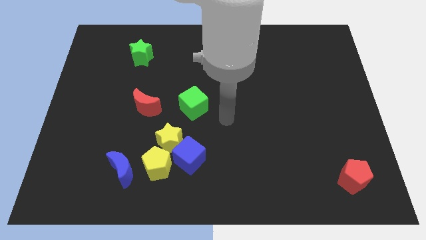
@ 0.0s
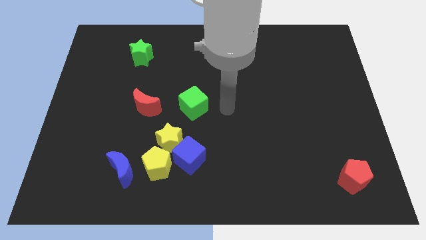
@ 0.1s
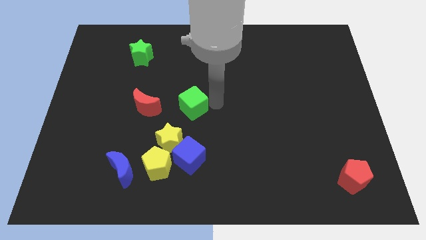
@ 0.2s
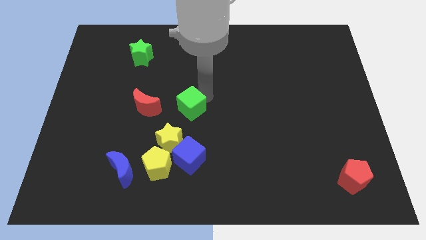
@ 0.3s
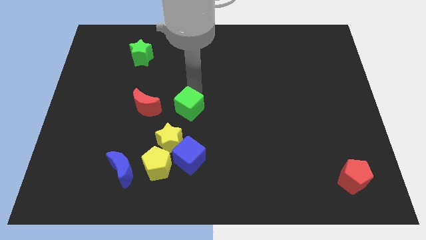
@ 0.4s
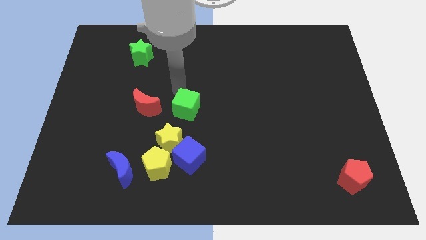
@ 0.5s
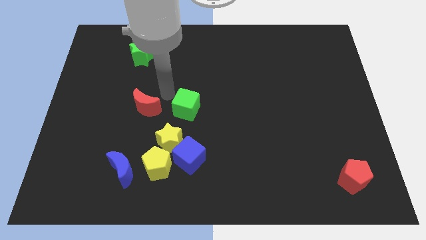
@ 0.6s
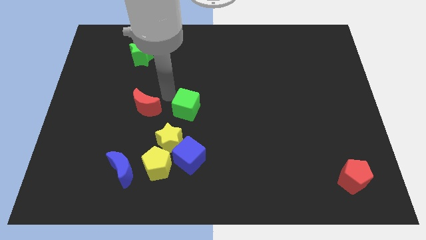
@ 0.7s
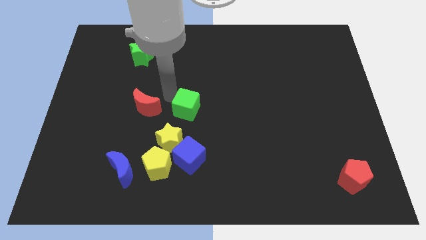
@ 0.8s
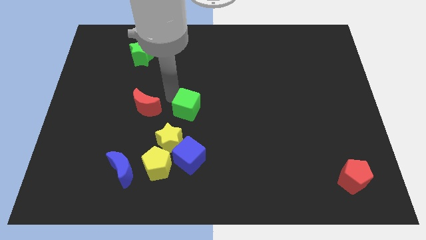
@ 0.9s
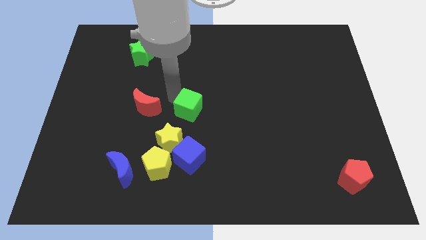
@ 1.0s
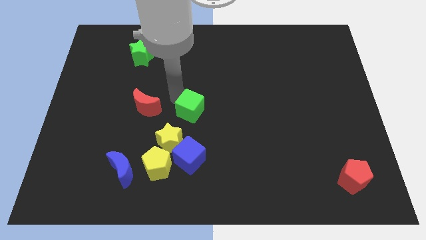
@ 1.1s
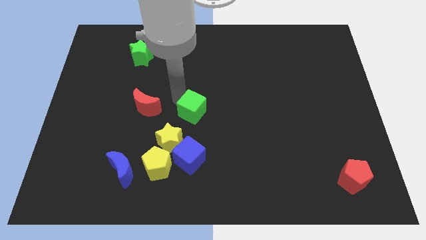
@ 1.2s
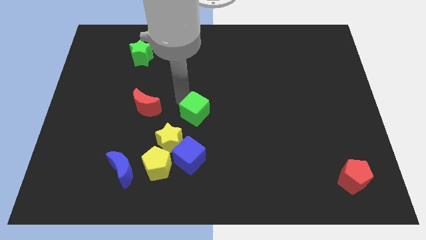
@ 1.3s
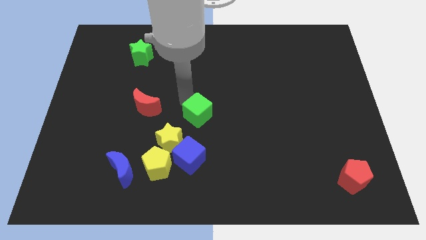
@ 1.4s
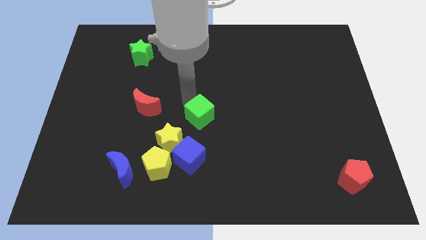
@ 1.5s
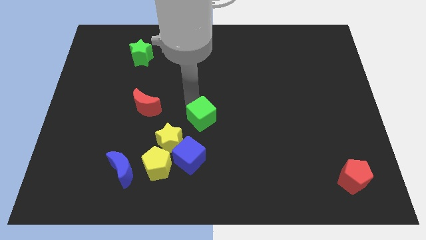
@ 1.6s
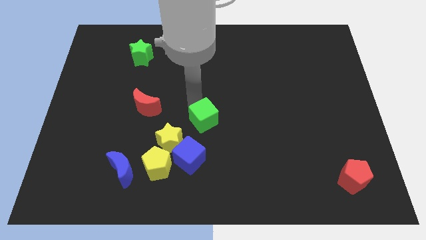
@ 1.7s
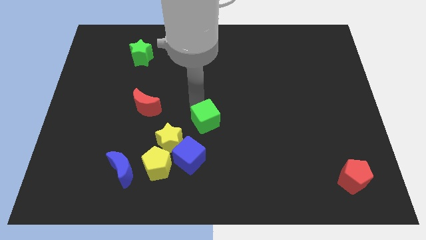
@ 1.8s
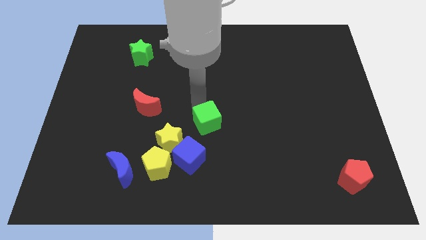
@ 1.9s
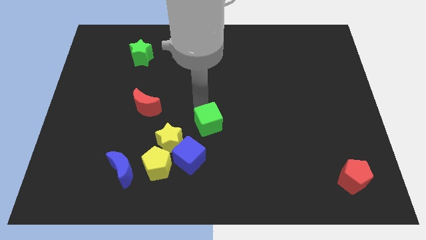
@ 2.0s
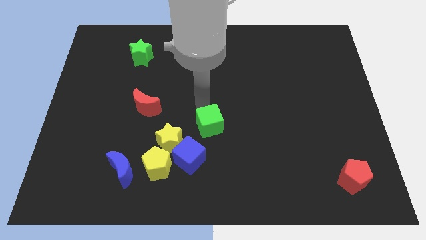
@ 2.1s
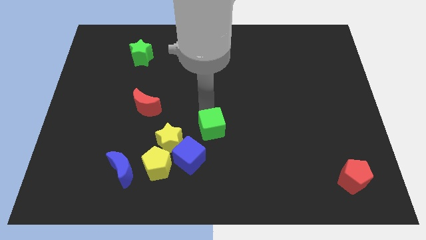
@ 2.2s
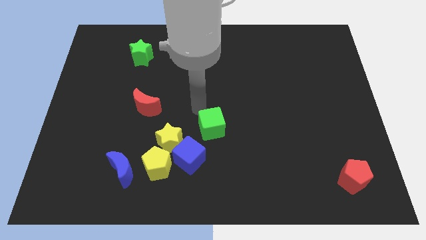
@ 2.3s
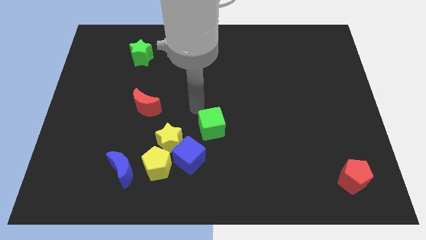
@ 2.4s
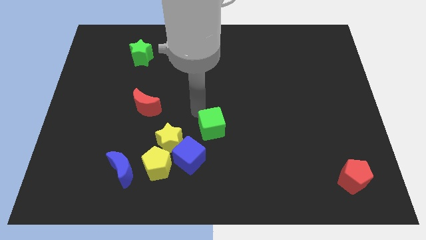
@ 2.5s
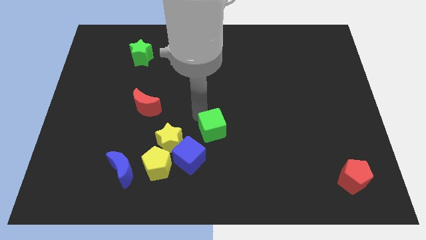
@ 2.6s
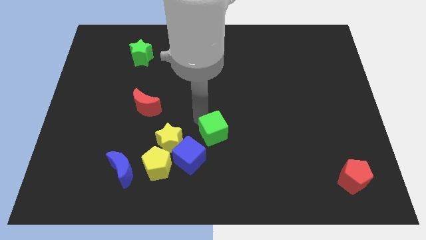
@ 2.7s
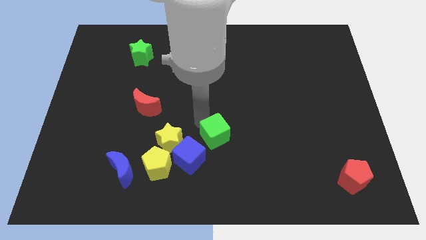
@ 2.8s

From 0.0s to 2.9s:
move the green cube down a little bit

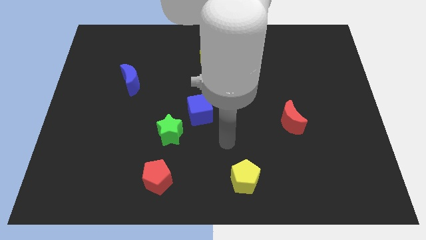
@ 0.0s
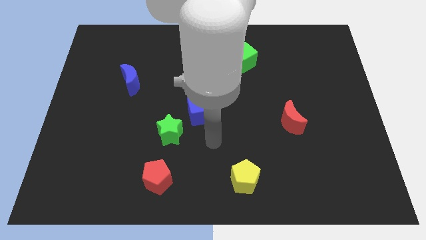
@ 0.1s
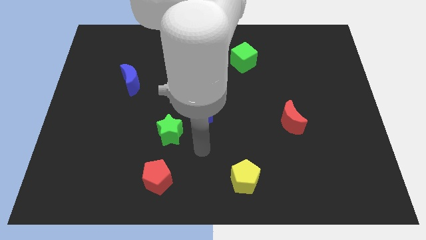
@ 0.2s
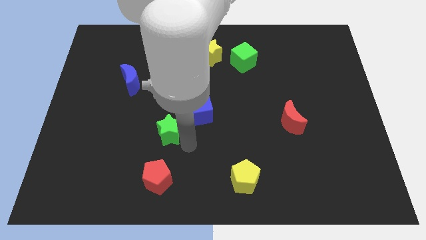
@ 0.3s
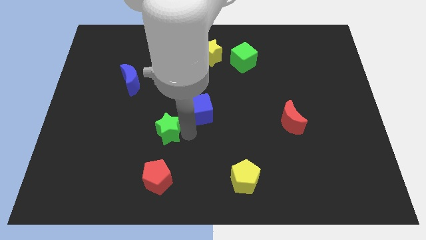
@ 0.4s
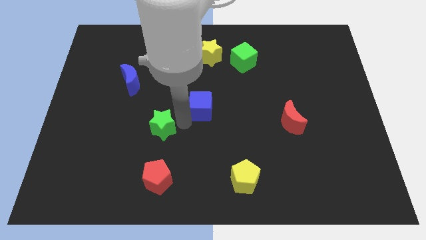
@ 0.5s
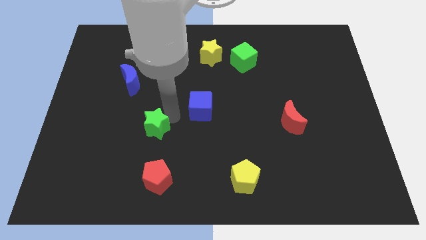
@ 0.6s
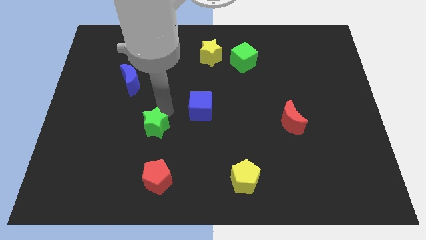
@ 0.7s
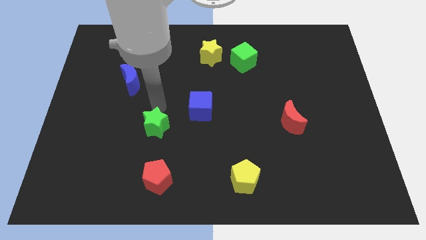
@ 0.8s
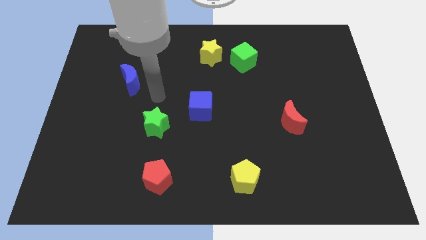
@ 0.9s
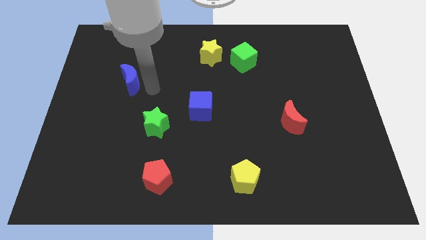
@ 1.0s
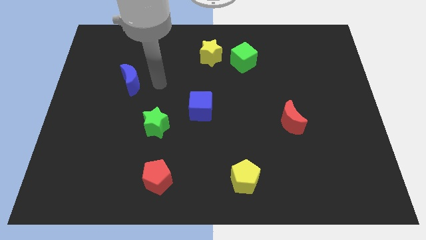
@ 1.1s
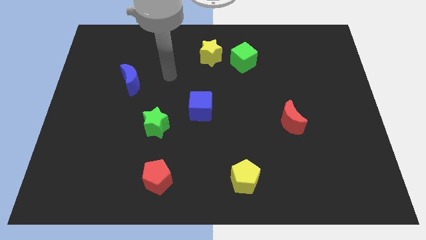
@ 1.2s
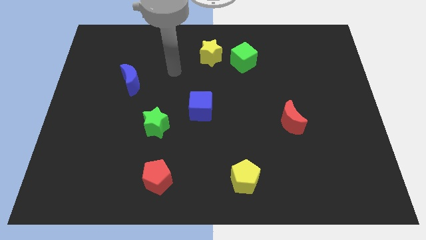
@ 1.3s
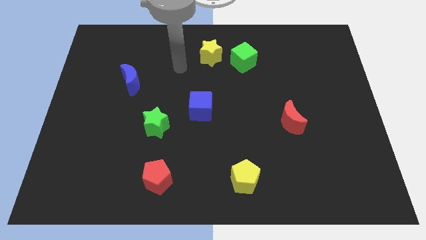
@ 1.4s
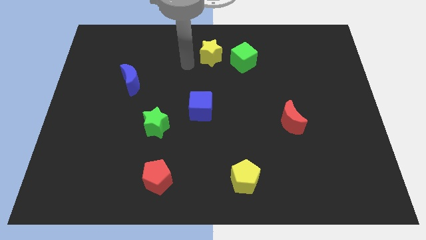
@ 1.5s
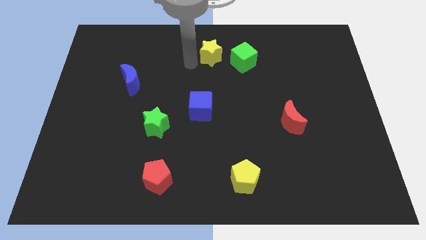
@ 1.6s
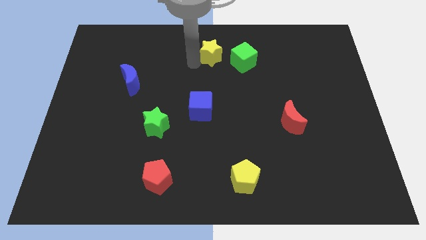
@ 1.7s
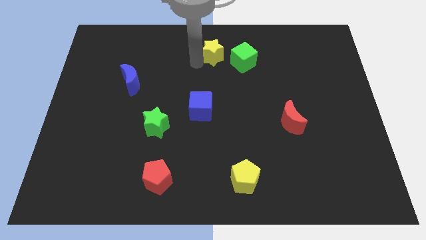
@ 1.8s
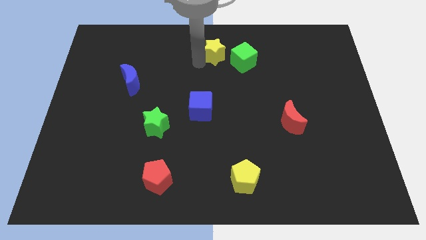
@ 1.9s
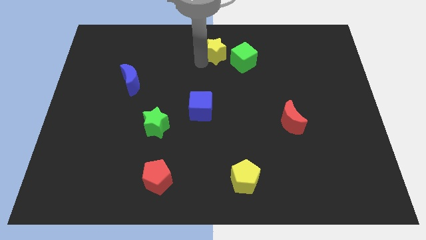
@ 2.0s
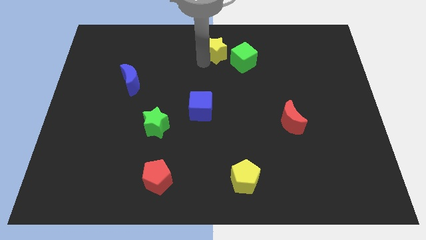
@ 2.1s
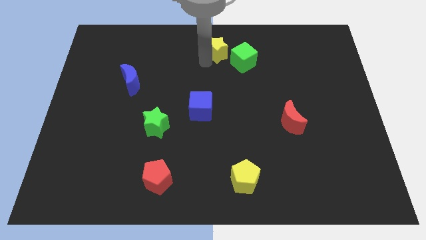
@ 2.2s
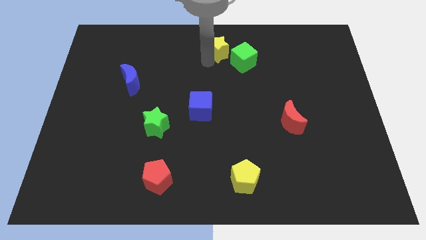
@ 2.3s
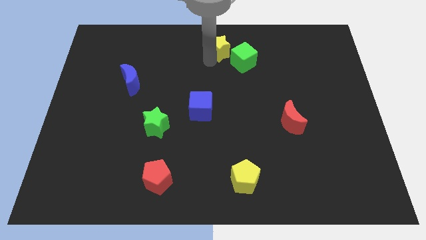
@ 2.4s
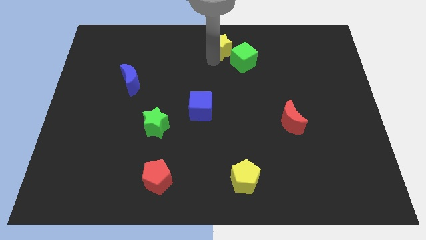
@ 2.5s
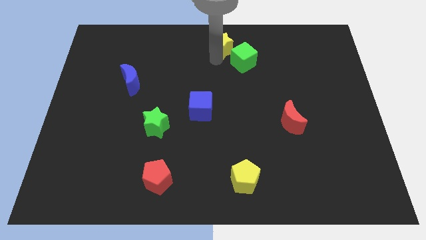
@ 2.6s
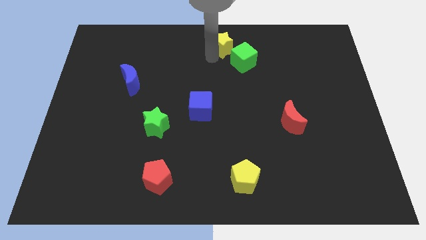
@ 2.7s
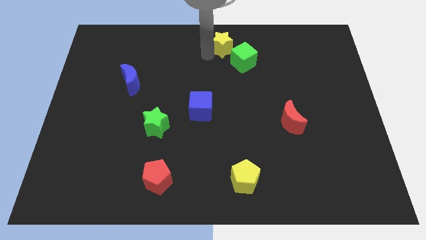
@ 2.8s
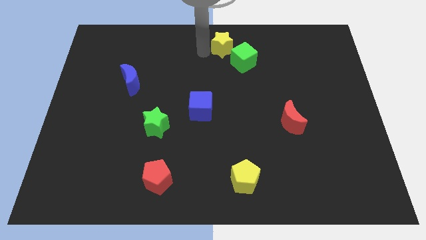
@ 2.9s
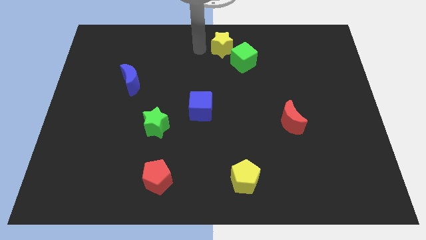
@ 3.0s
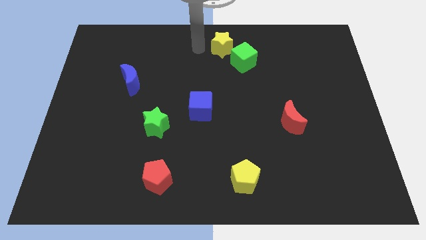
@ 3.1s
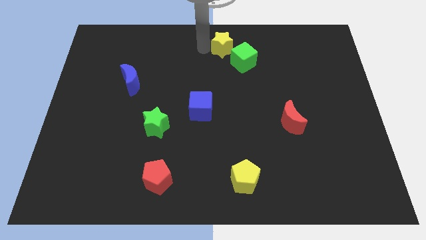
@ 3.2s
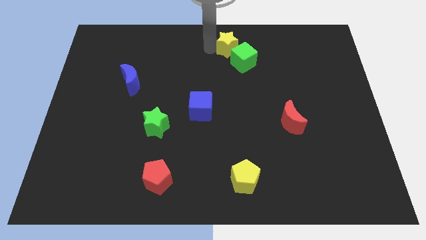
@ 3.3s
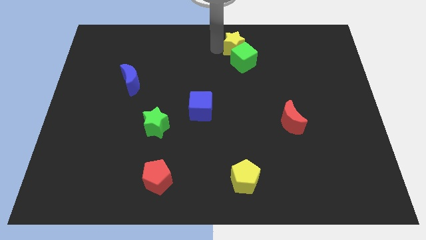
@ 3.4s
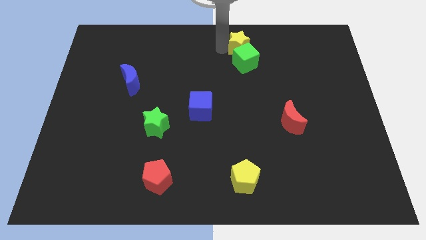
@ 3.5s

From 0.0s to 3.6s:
move the yellow star to the right a little bit

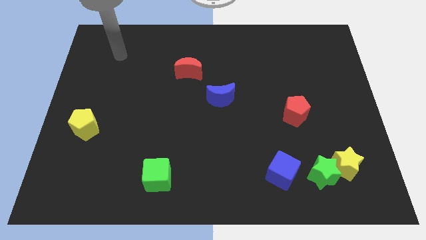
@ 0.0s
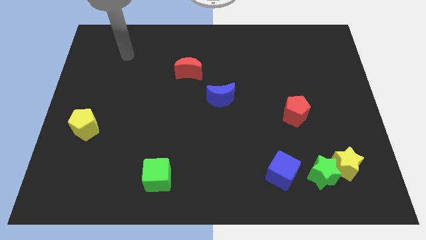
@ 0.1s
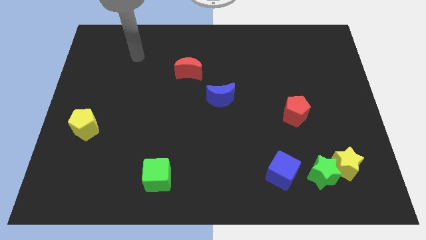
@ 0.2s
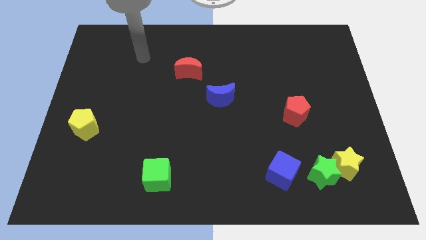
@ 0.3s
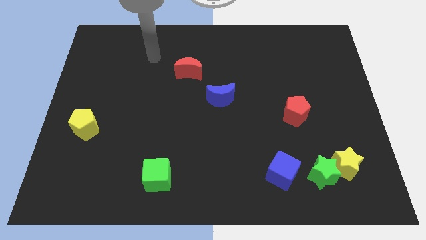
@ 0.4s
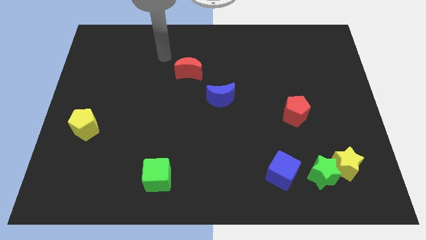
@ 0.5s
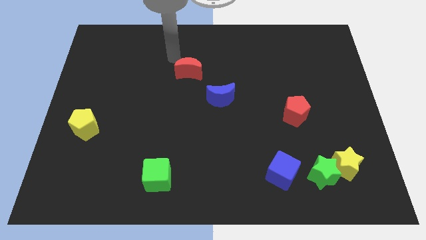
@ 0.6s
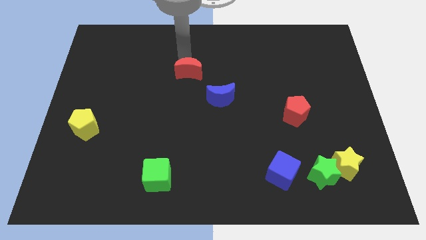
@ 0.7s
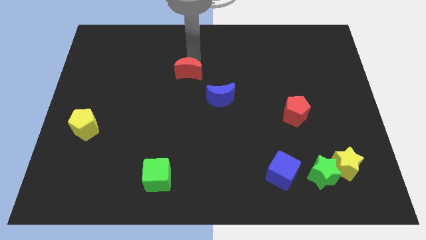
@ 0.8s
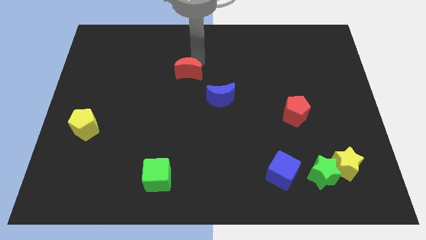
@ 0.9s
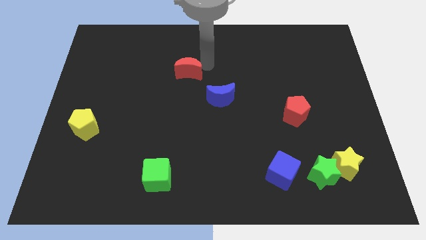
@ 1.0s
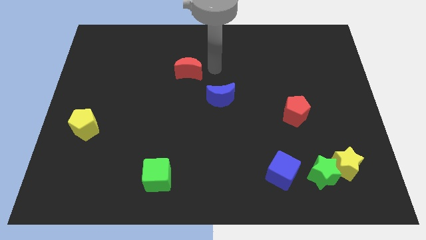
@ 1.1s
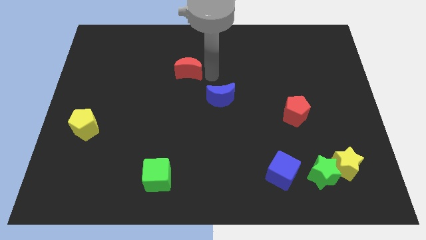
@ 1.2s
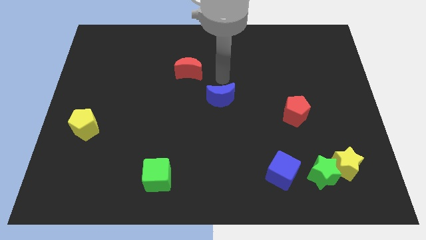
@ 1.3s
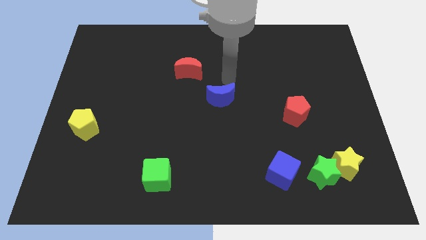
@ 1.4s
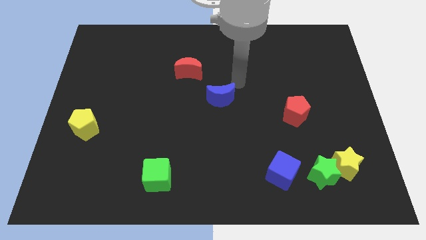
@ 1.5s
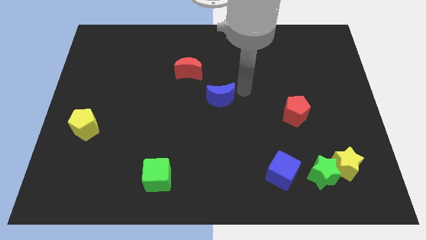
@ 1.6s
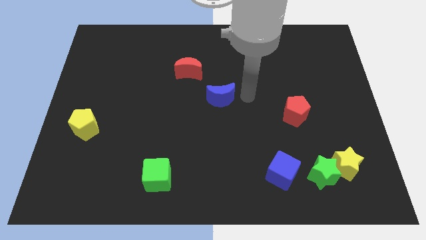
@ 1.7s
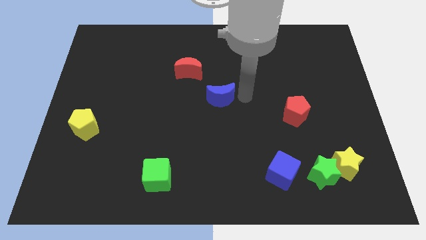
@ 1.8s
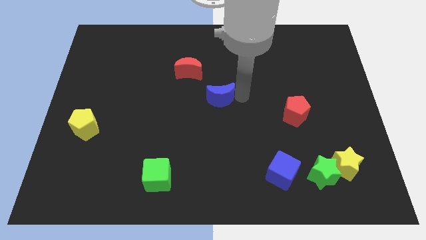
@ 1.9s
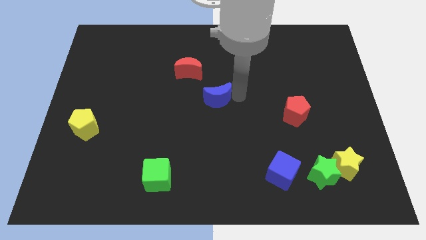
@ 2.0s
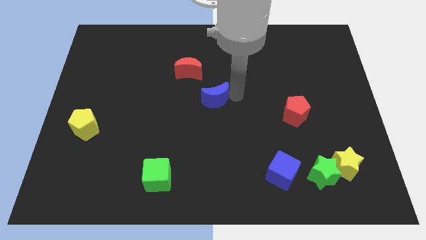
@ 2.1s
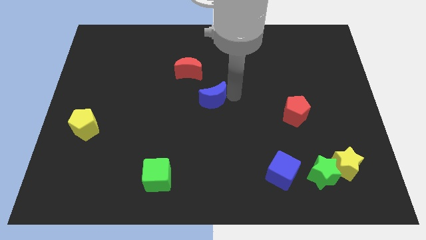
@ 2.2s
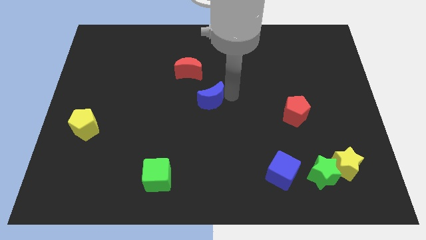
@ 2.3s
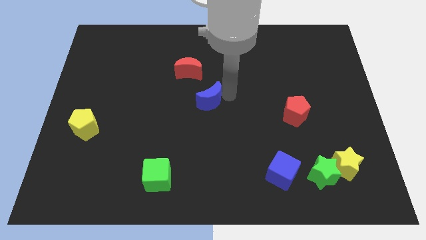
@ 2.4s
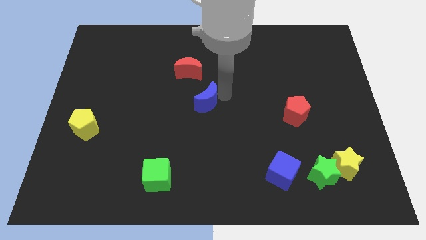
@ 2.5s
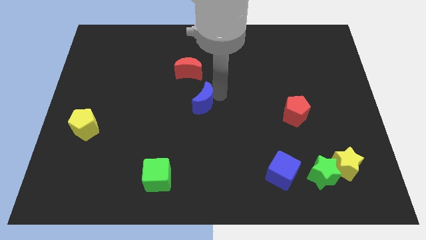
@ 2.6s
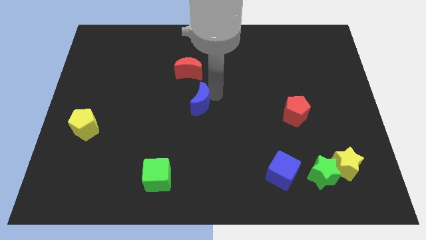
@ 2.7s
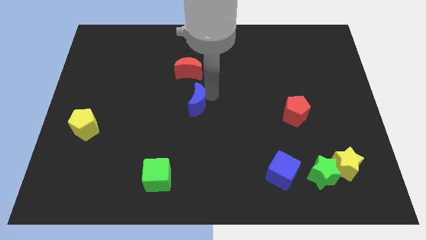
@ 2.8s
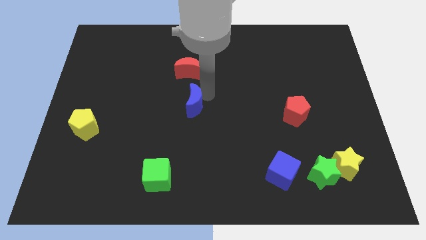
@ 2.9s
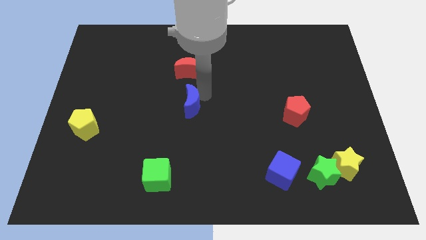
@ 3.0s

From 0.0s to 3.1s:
slide the blue moon somewhat to the left
